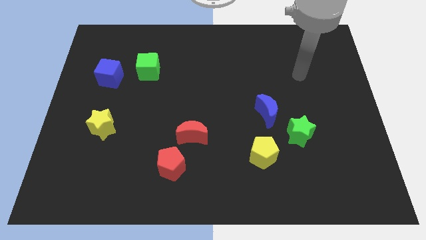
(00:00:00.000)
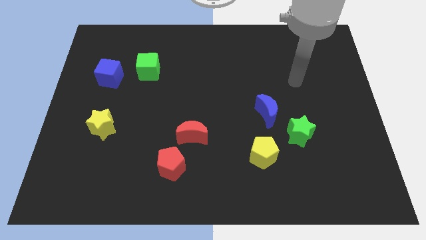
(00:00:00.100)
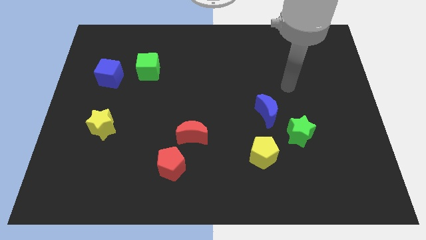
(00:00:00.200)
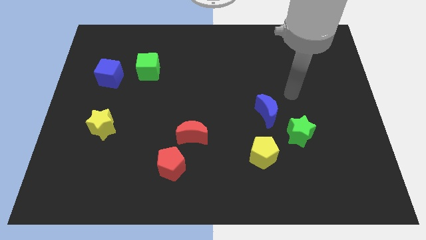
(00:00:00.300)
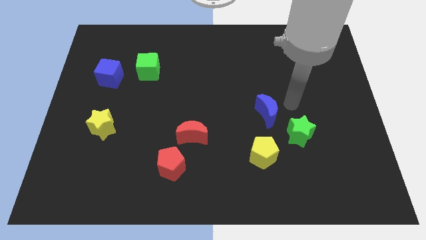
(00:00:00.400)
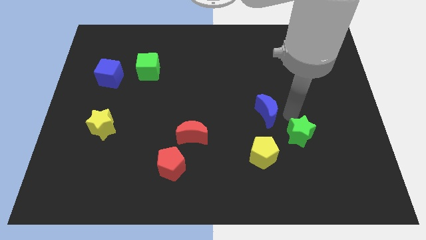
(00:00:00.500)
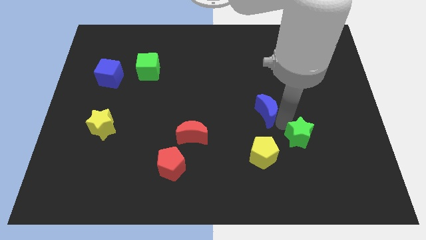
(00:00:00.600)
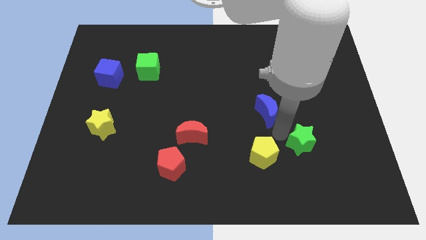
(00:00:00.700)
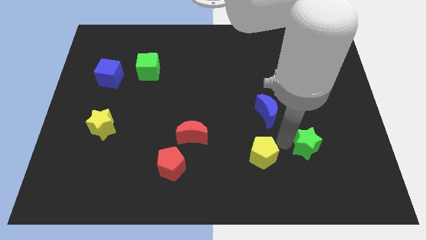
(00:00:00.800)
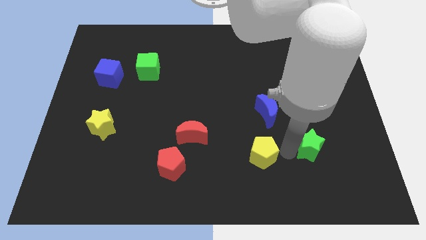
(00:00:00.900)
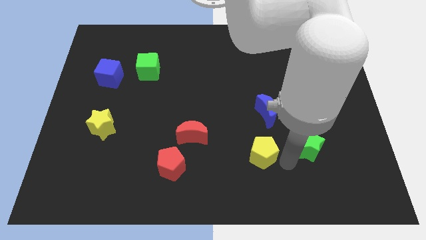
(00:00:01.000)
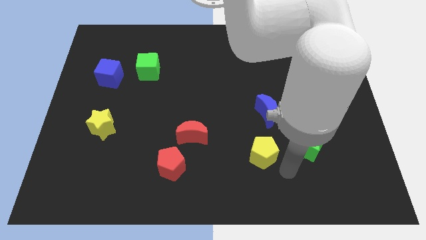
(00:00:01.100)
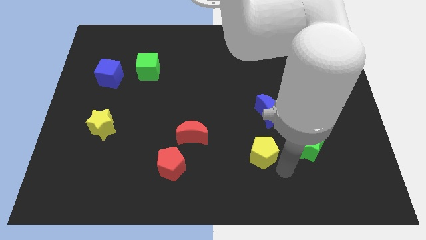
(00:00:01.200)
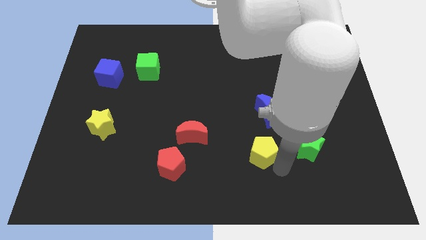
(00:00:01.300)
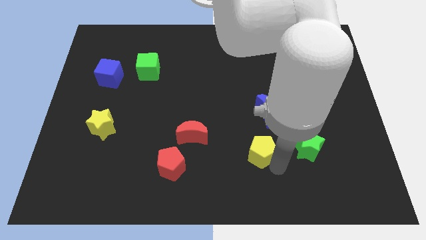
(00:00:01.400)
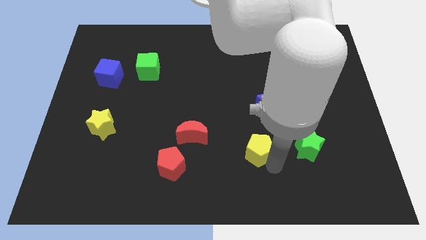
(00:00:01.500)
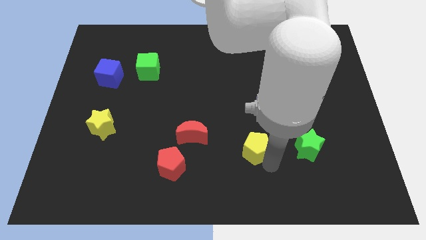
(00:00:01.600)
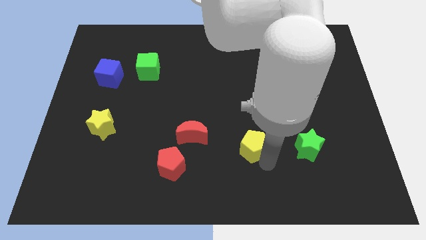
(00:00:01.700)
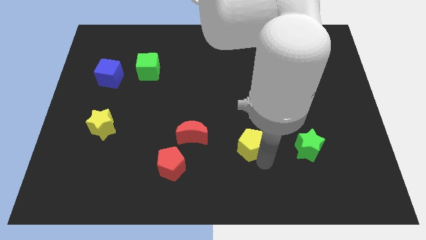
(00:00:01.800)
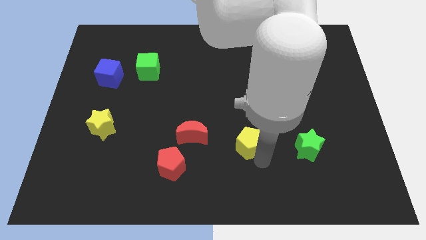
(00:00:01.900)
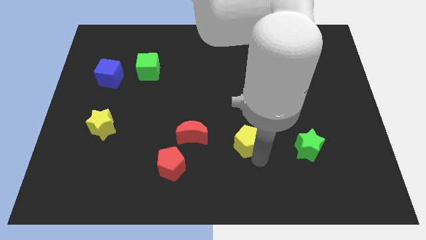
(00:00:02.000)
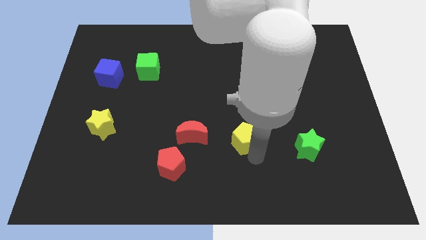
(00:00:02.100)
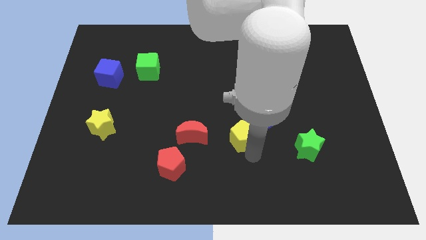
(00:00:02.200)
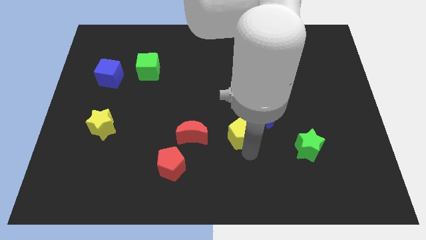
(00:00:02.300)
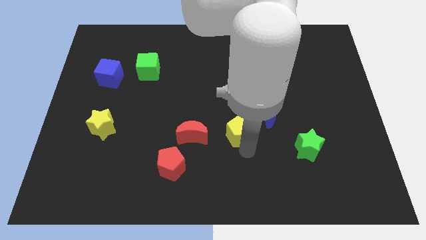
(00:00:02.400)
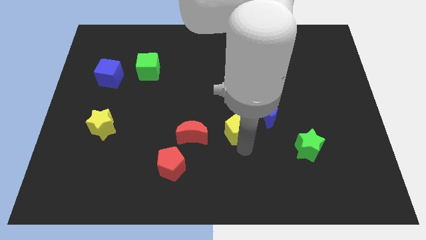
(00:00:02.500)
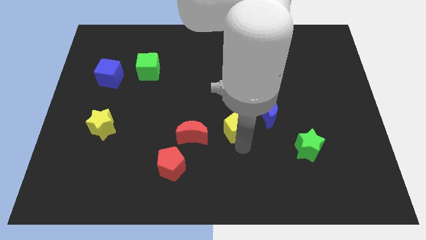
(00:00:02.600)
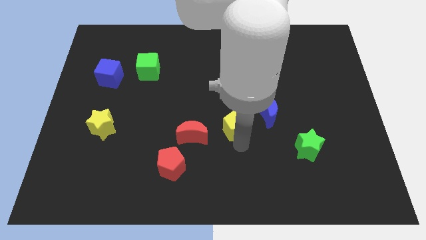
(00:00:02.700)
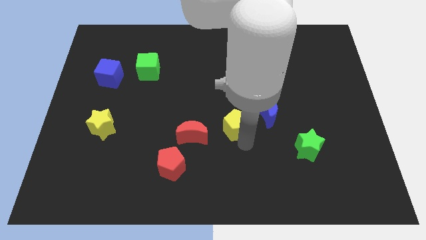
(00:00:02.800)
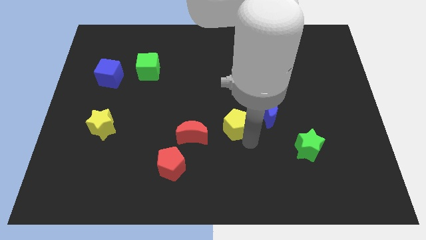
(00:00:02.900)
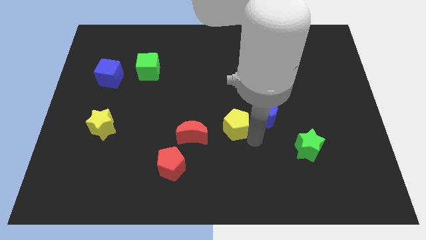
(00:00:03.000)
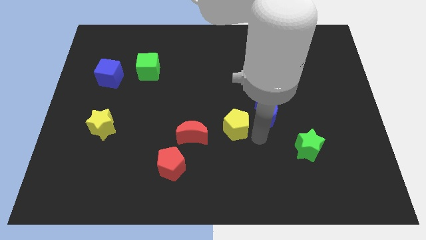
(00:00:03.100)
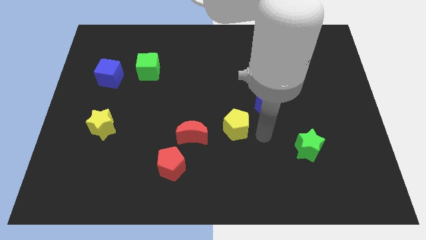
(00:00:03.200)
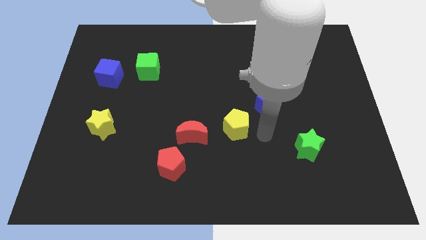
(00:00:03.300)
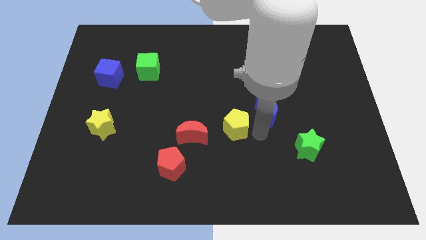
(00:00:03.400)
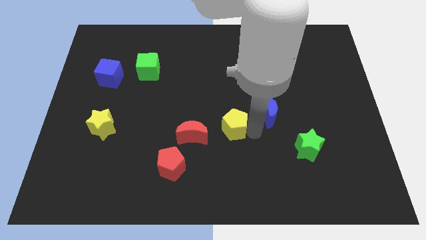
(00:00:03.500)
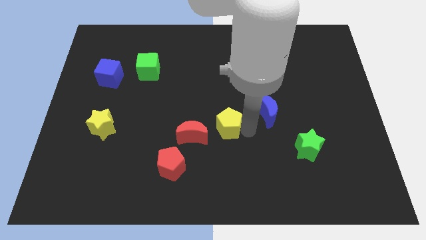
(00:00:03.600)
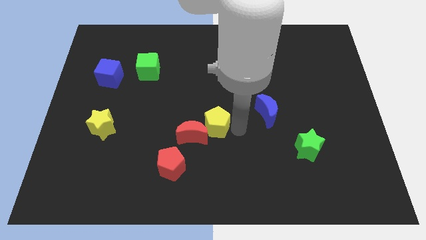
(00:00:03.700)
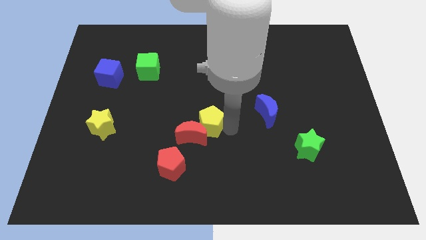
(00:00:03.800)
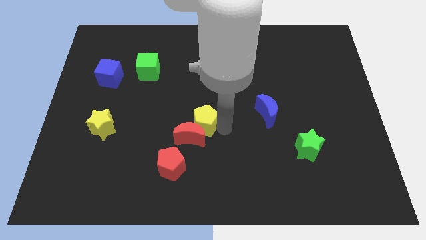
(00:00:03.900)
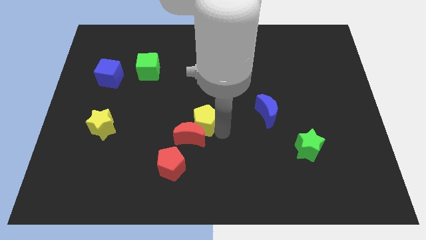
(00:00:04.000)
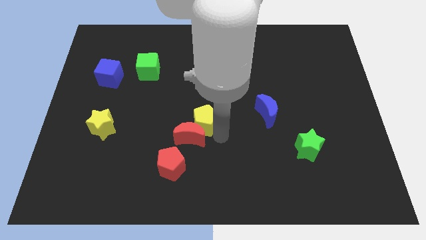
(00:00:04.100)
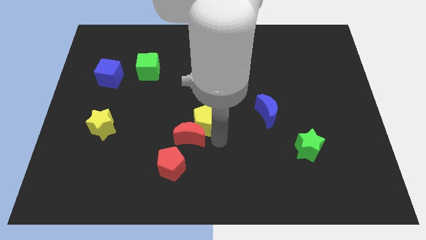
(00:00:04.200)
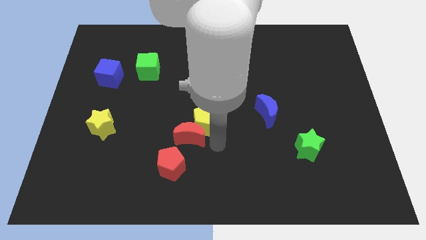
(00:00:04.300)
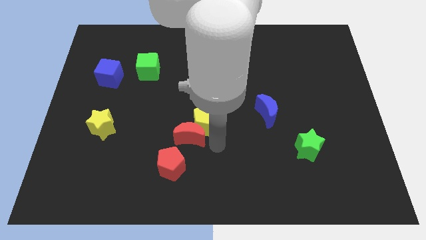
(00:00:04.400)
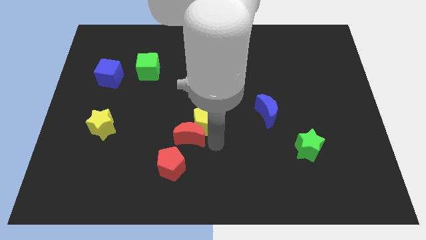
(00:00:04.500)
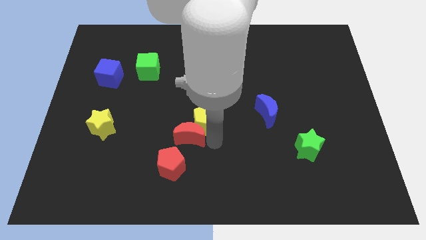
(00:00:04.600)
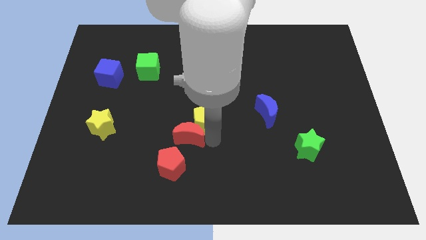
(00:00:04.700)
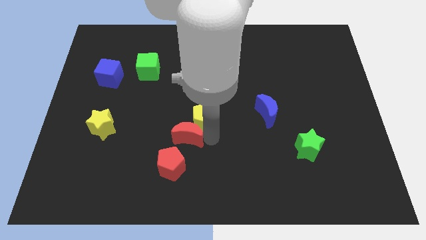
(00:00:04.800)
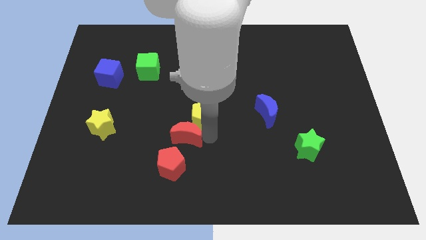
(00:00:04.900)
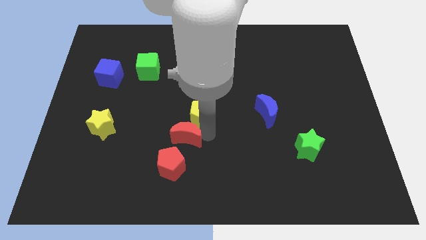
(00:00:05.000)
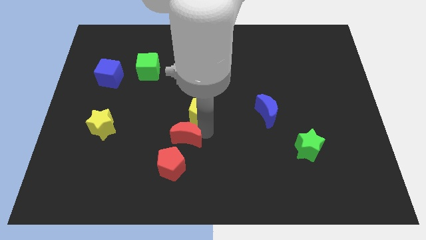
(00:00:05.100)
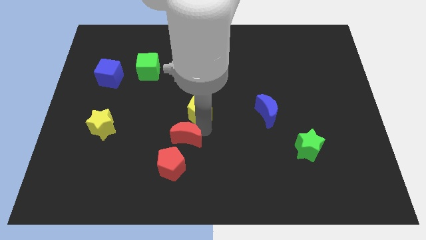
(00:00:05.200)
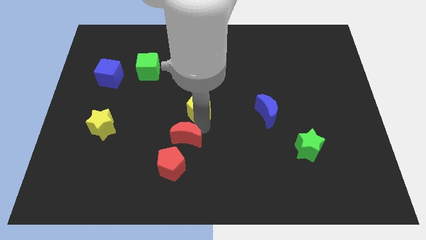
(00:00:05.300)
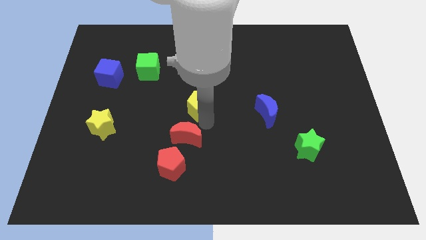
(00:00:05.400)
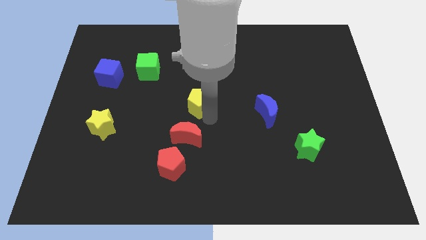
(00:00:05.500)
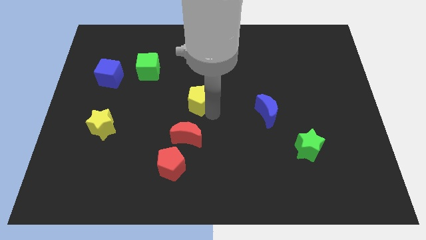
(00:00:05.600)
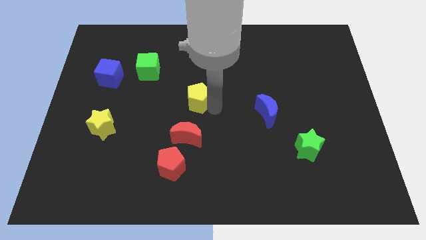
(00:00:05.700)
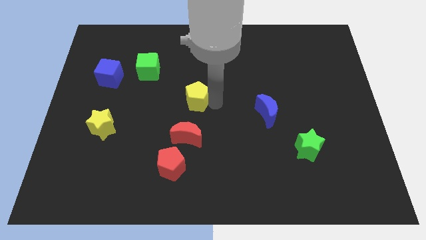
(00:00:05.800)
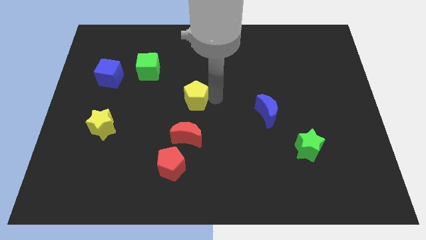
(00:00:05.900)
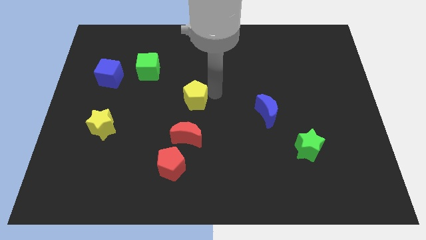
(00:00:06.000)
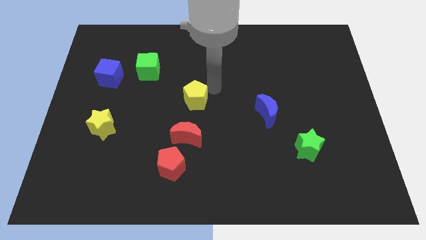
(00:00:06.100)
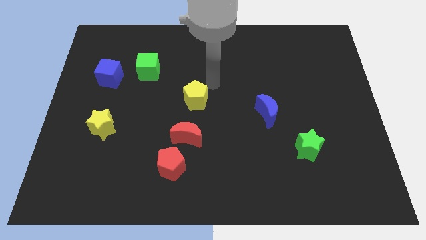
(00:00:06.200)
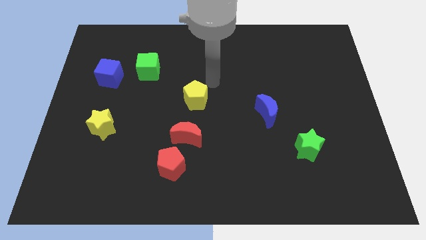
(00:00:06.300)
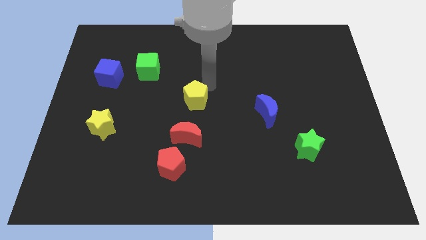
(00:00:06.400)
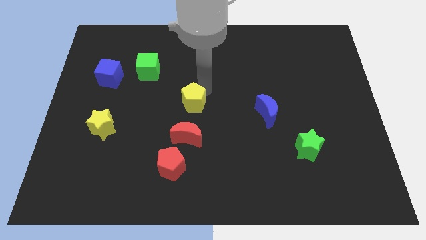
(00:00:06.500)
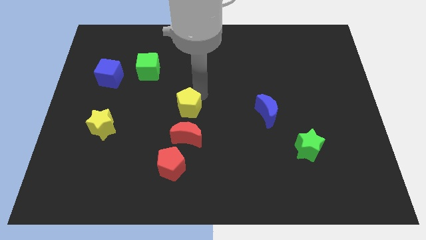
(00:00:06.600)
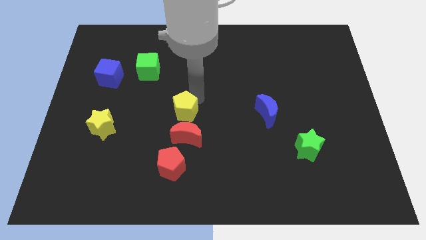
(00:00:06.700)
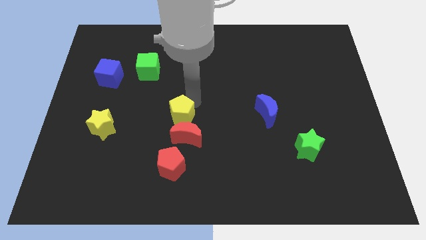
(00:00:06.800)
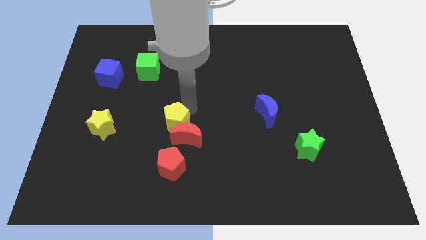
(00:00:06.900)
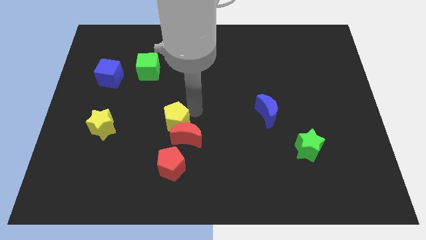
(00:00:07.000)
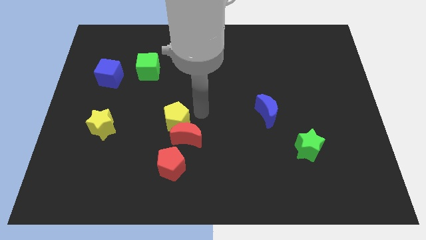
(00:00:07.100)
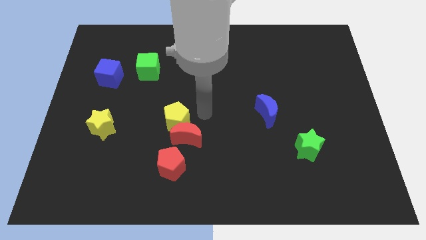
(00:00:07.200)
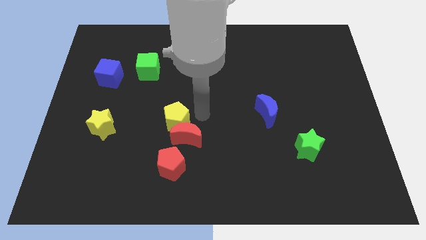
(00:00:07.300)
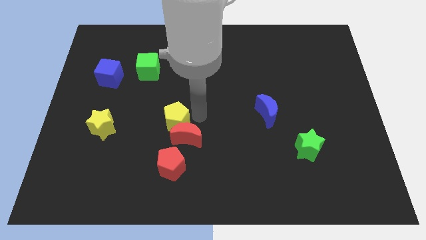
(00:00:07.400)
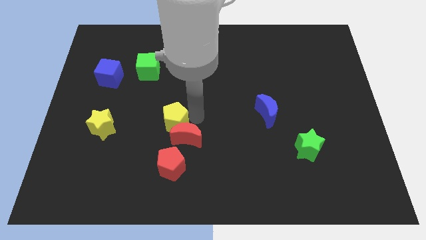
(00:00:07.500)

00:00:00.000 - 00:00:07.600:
push the yellow pentagon to the right of the yellow star
